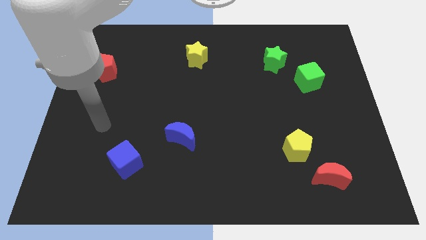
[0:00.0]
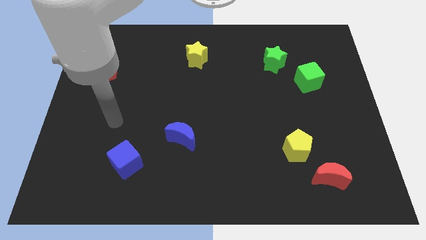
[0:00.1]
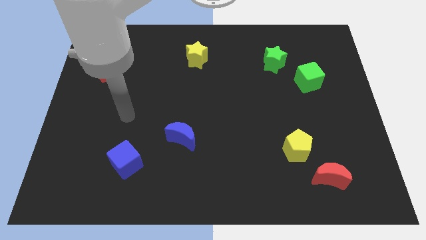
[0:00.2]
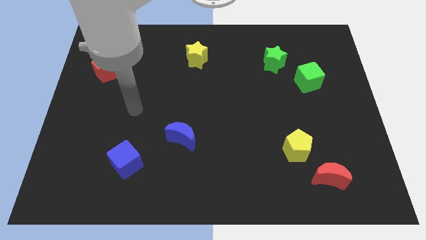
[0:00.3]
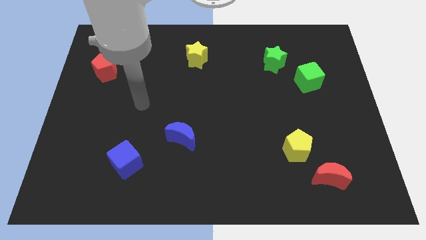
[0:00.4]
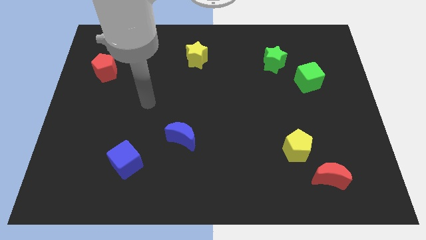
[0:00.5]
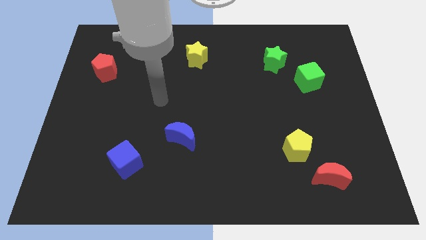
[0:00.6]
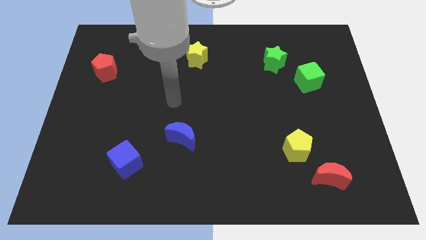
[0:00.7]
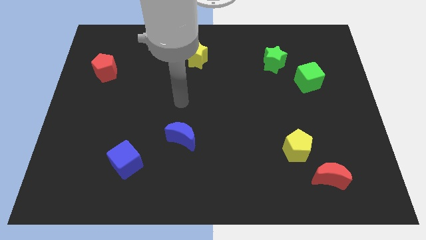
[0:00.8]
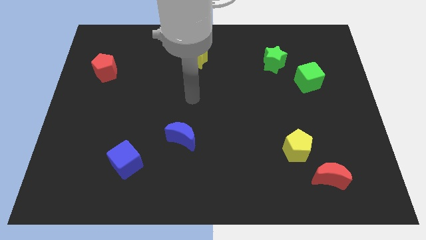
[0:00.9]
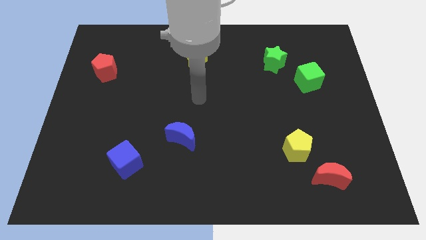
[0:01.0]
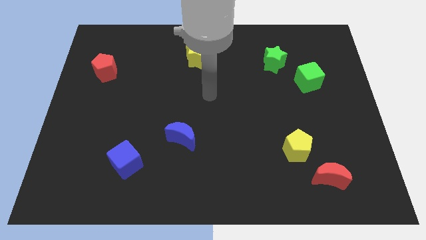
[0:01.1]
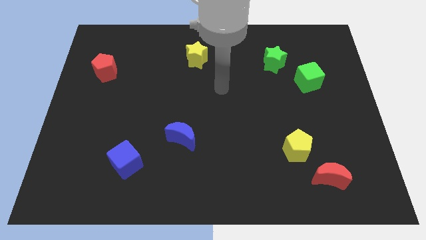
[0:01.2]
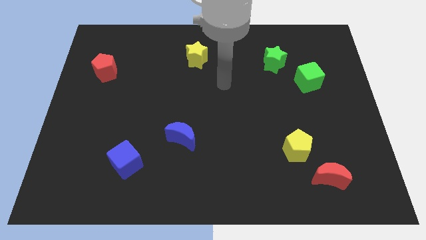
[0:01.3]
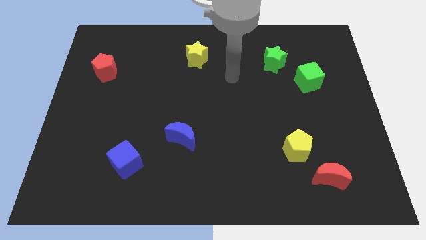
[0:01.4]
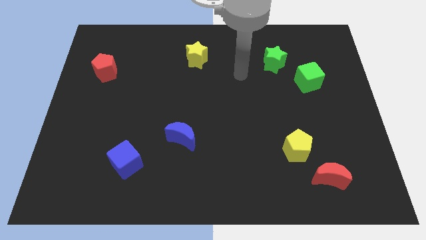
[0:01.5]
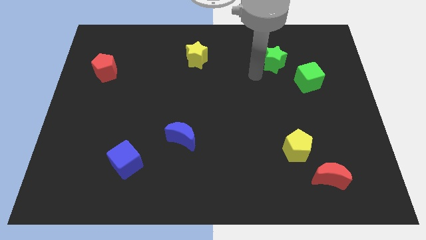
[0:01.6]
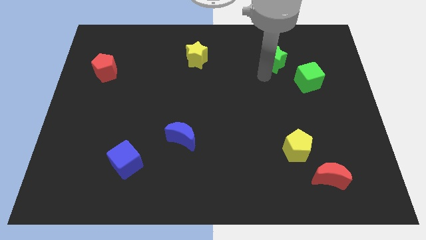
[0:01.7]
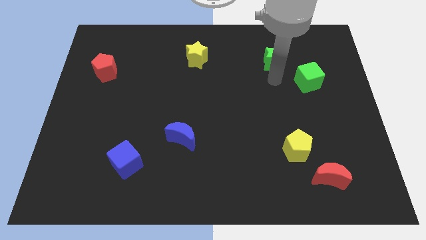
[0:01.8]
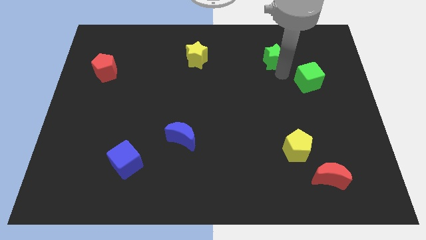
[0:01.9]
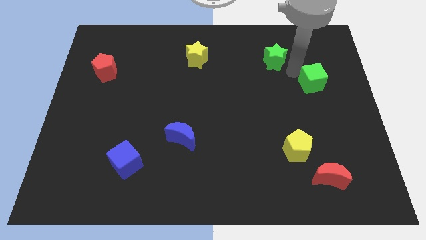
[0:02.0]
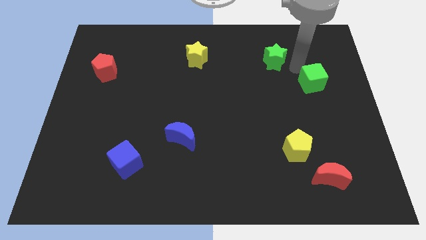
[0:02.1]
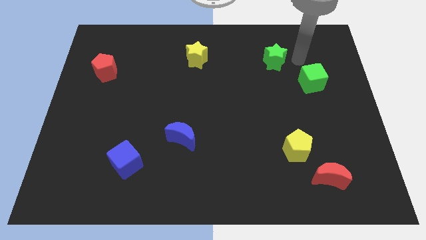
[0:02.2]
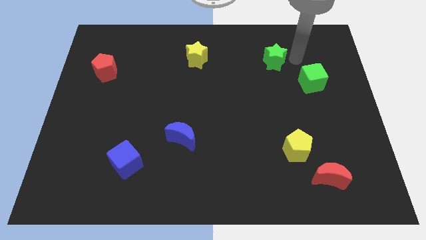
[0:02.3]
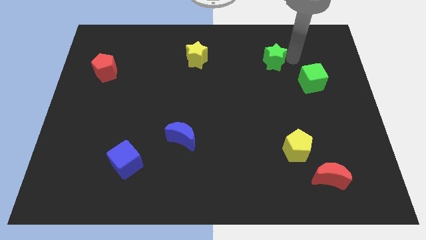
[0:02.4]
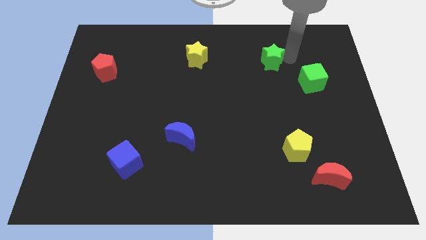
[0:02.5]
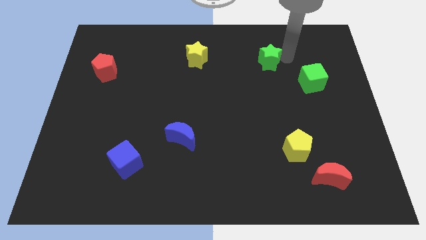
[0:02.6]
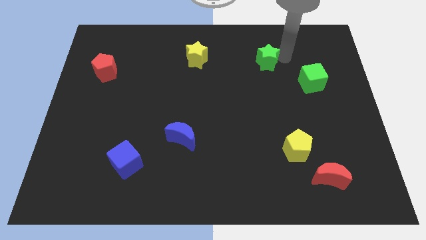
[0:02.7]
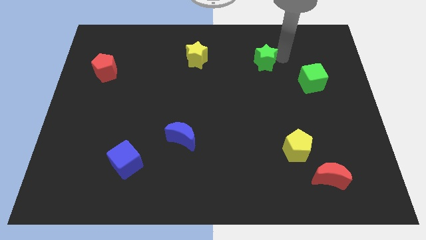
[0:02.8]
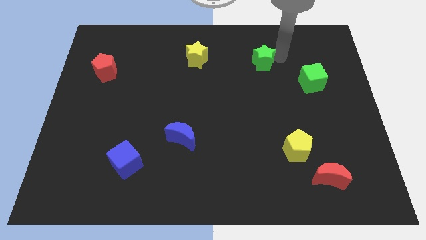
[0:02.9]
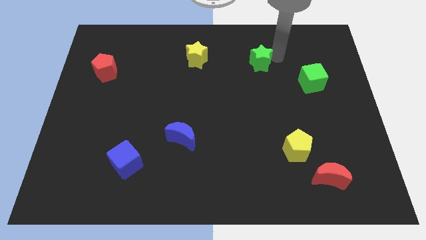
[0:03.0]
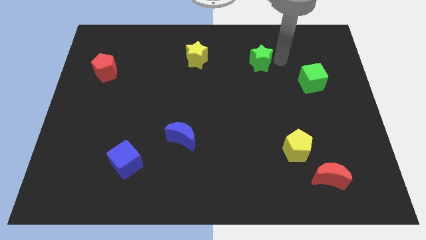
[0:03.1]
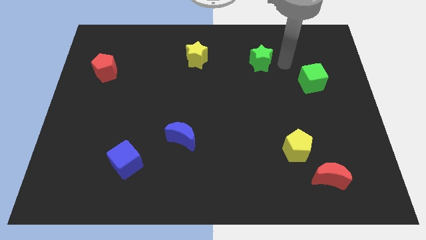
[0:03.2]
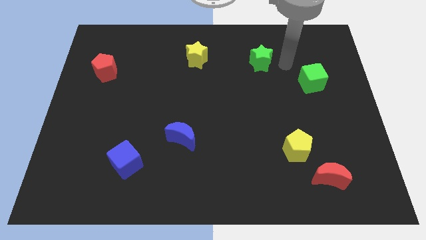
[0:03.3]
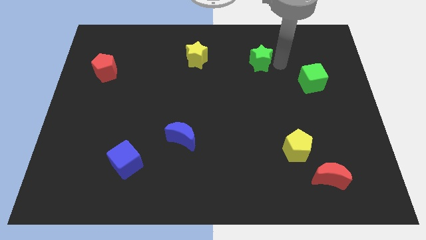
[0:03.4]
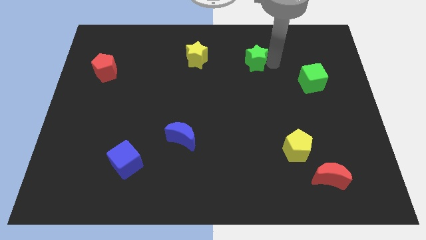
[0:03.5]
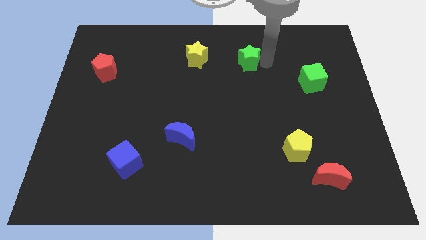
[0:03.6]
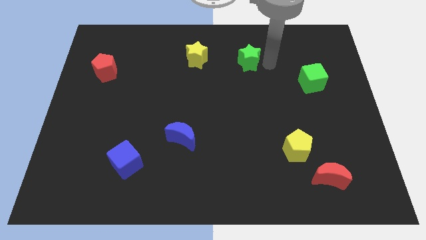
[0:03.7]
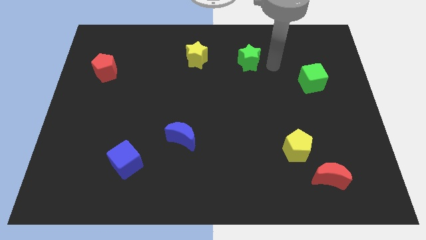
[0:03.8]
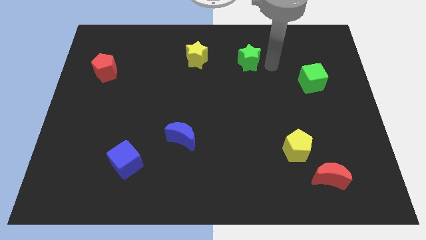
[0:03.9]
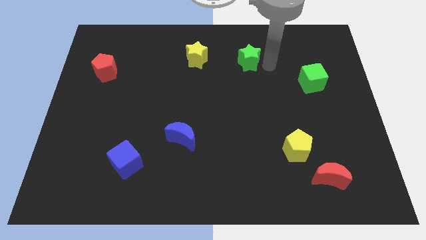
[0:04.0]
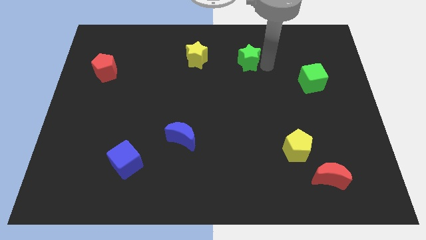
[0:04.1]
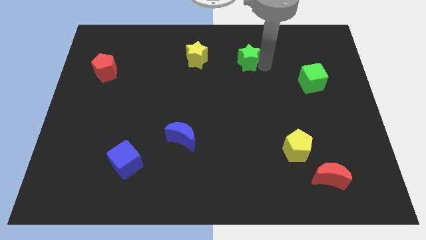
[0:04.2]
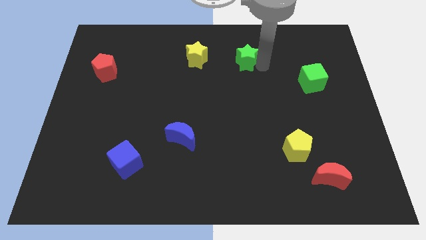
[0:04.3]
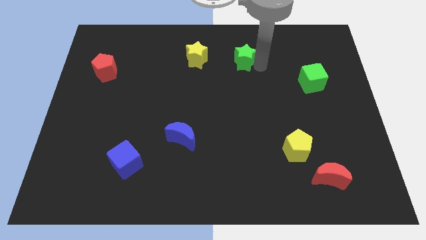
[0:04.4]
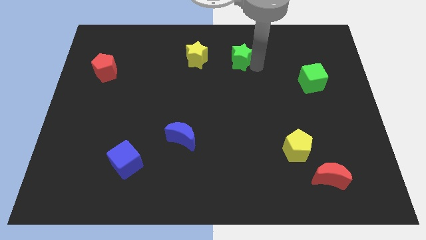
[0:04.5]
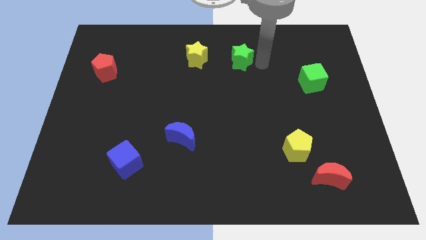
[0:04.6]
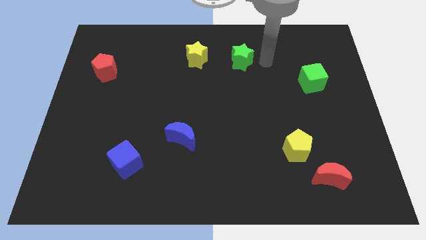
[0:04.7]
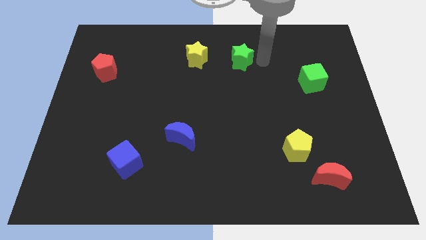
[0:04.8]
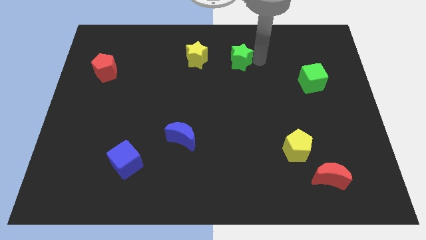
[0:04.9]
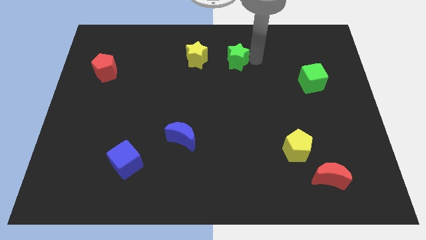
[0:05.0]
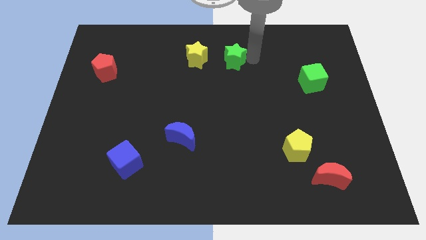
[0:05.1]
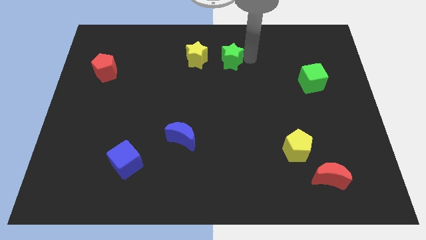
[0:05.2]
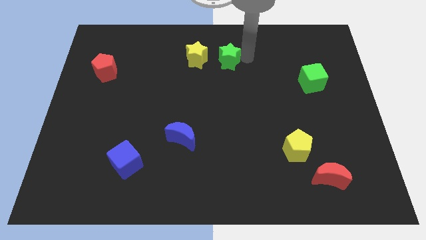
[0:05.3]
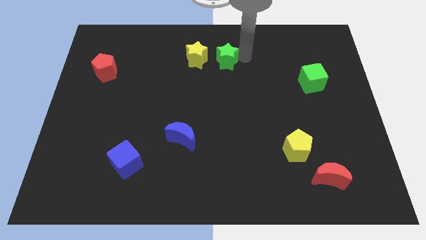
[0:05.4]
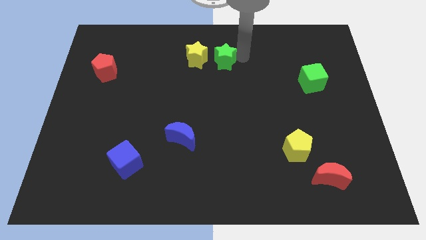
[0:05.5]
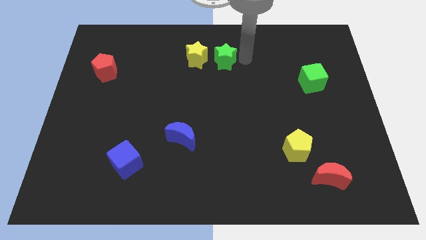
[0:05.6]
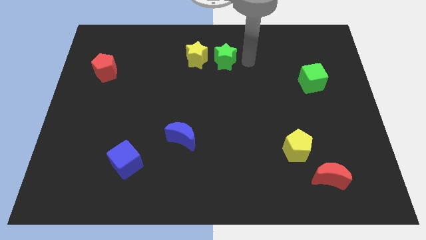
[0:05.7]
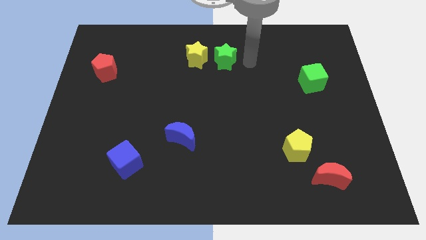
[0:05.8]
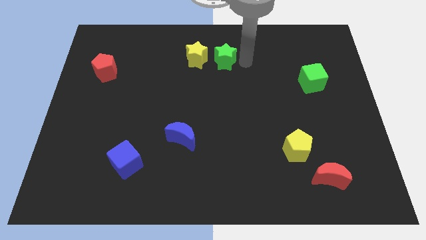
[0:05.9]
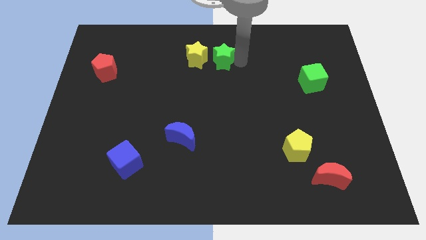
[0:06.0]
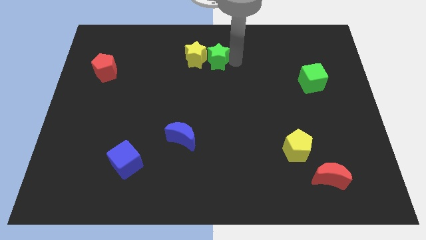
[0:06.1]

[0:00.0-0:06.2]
put the green star towards the yellow star

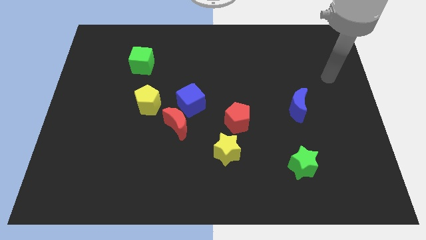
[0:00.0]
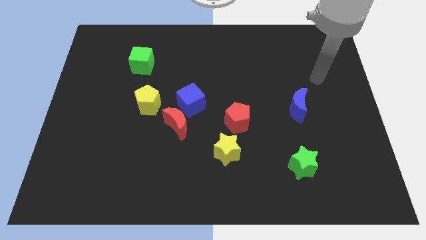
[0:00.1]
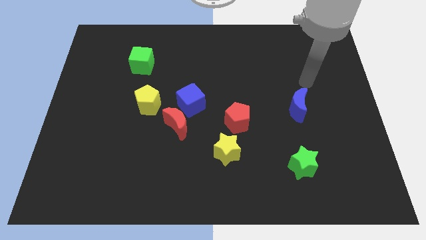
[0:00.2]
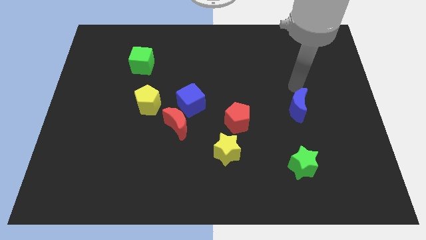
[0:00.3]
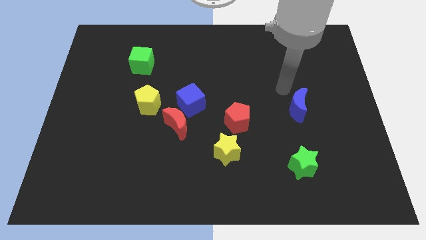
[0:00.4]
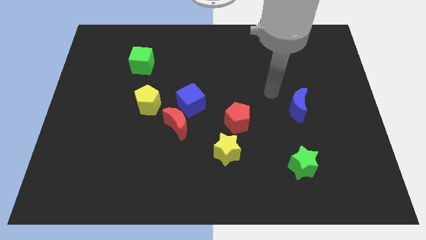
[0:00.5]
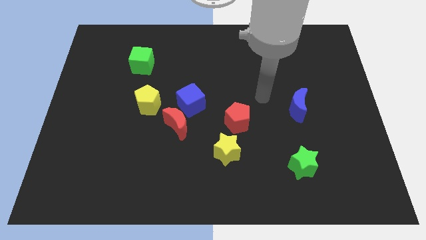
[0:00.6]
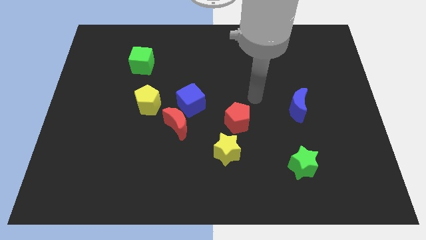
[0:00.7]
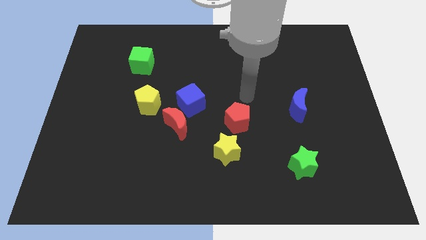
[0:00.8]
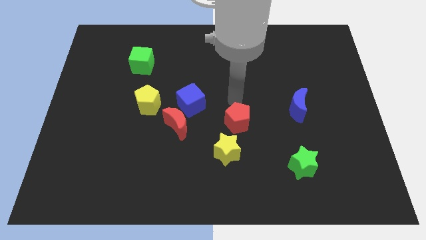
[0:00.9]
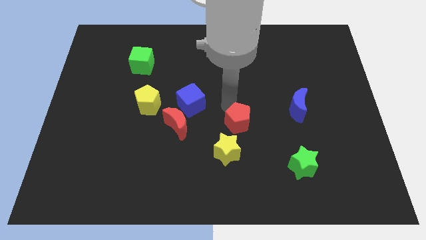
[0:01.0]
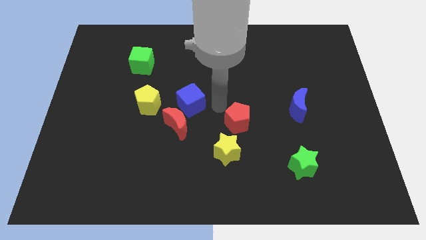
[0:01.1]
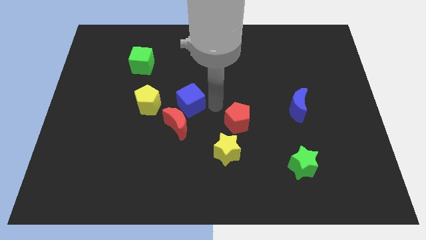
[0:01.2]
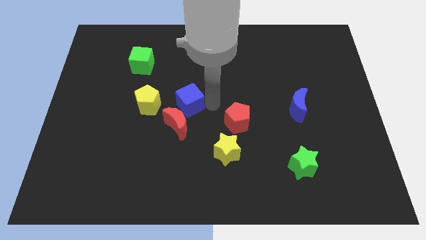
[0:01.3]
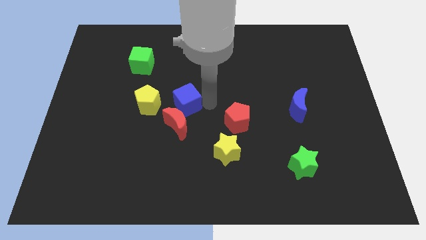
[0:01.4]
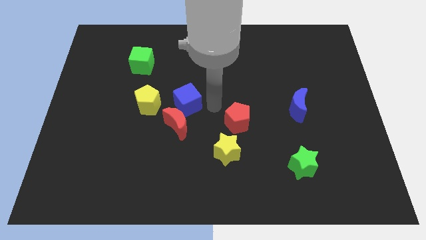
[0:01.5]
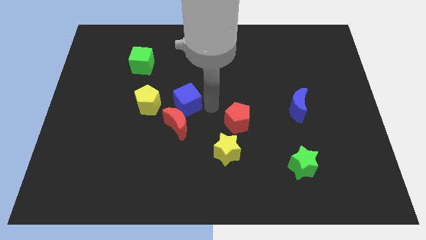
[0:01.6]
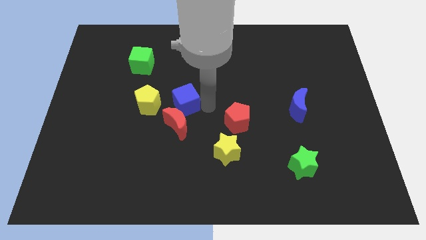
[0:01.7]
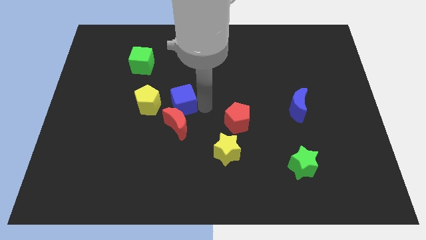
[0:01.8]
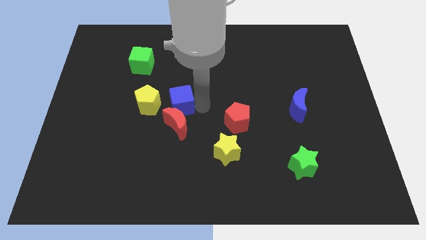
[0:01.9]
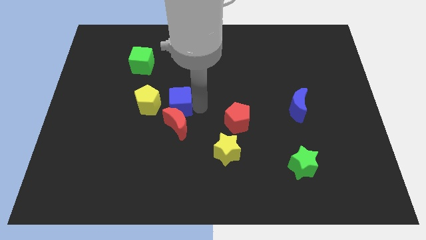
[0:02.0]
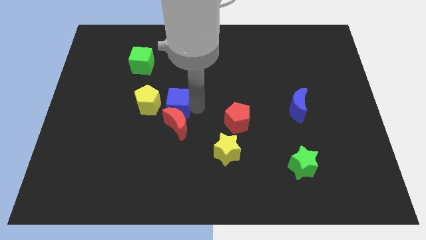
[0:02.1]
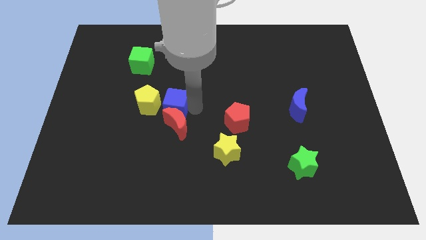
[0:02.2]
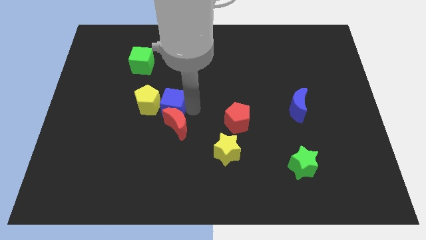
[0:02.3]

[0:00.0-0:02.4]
push the blue cube next to the yellow pentagon
